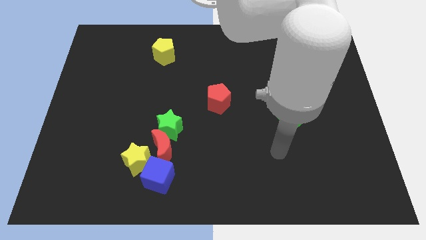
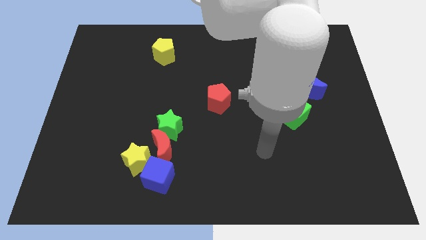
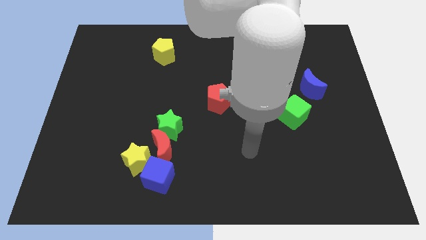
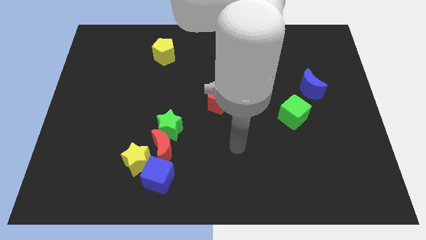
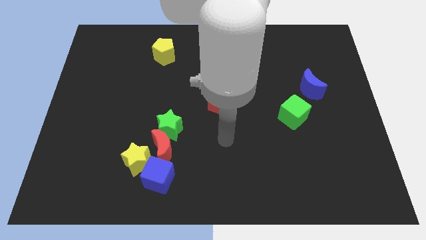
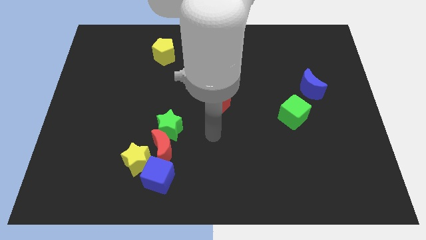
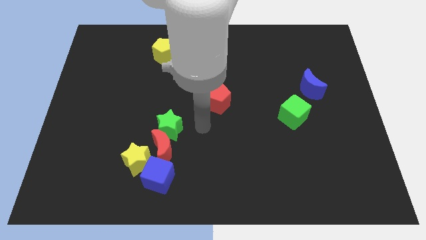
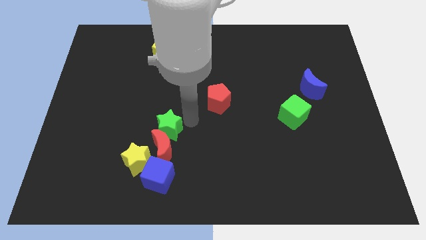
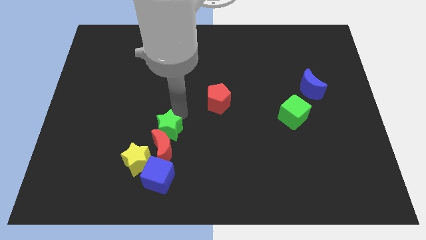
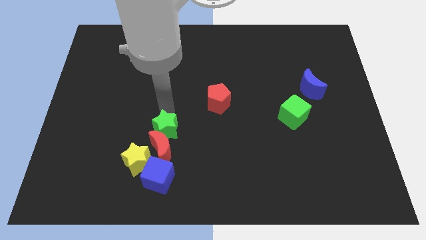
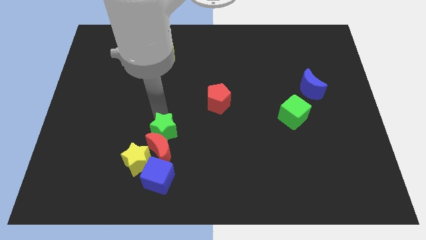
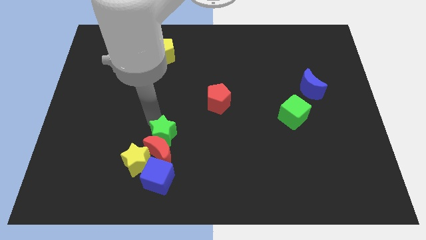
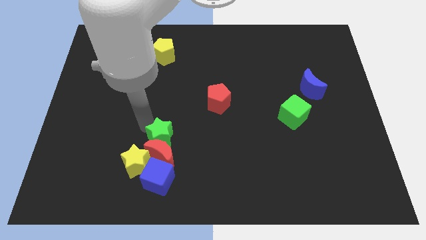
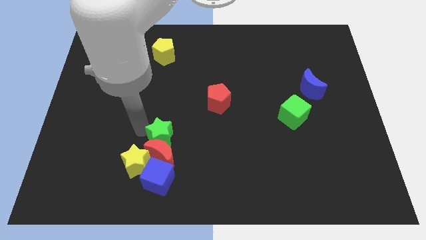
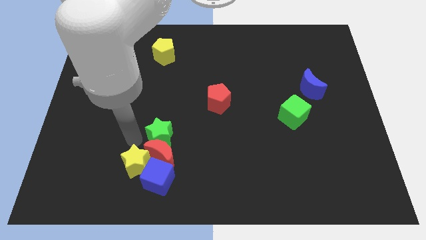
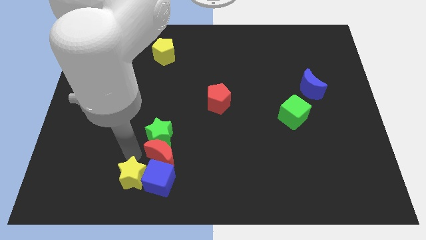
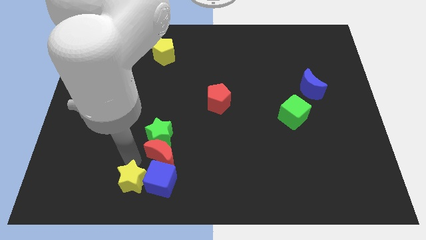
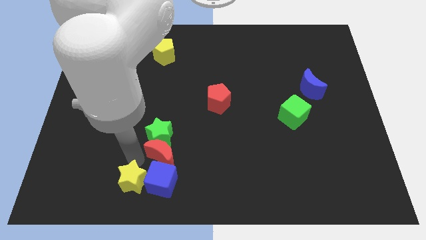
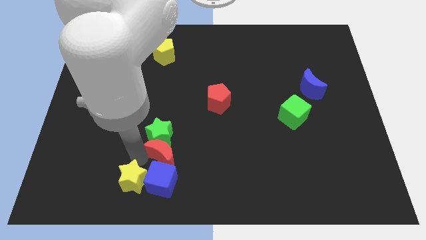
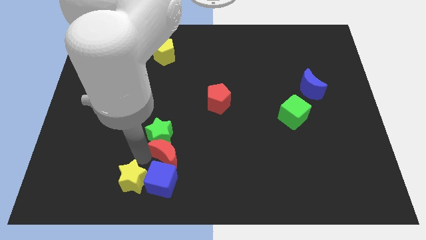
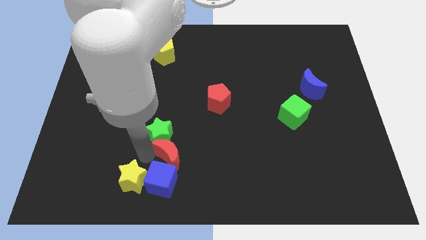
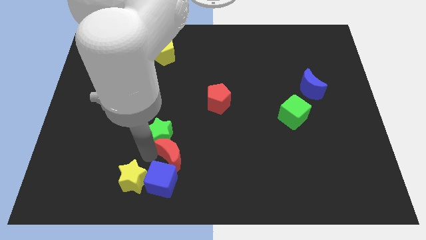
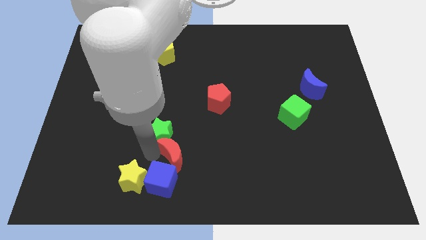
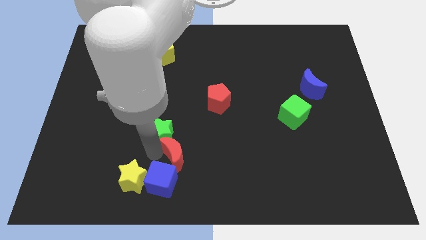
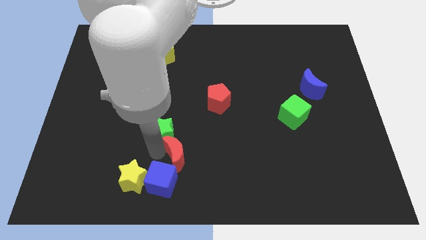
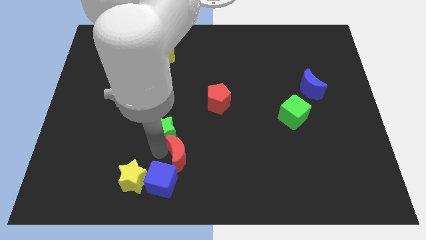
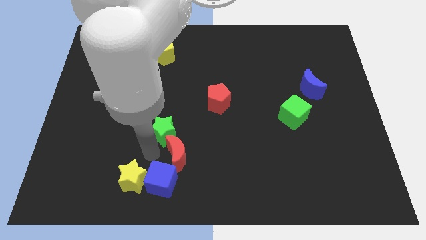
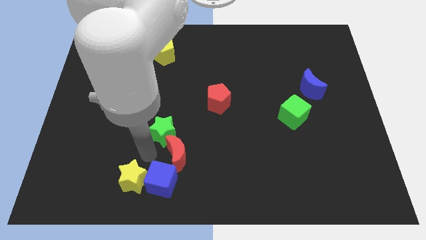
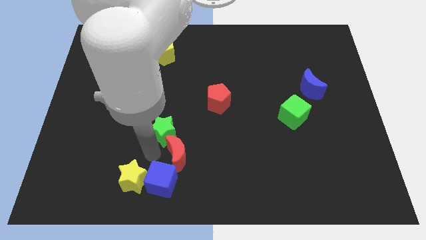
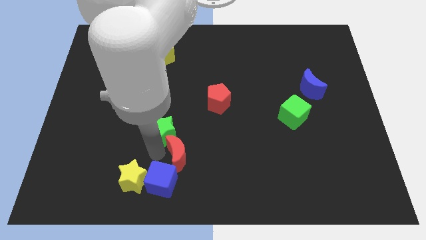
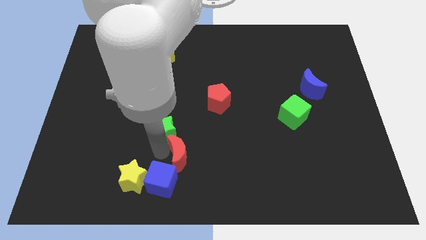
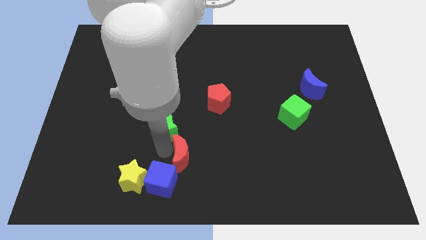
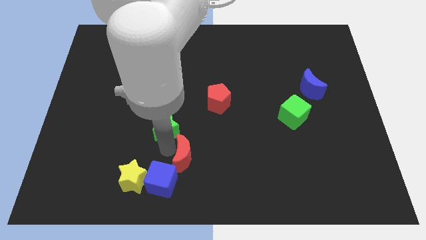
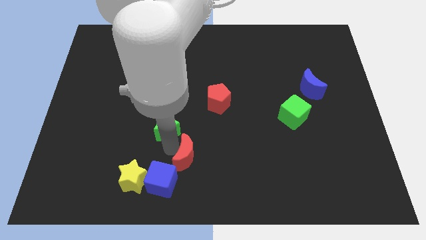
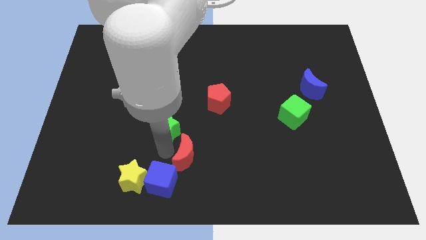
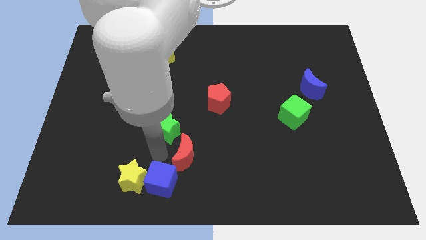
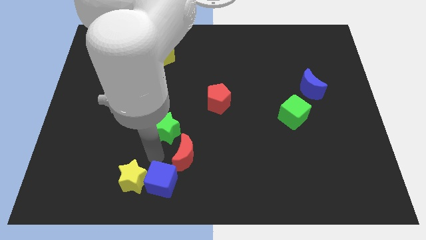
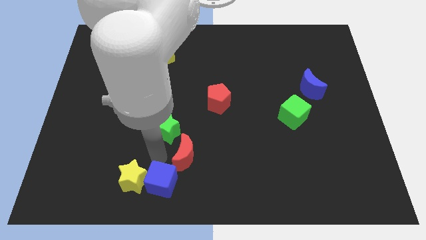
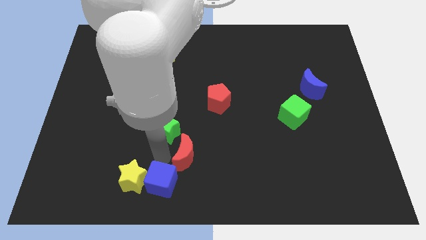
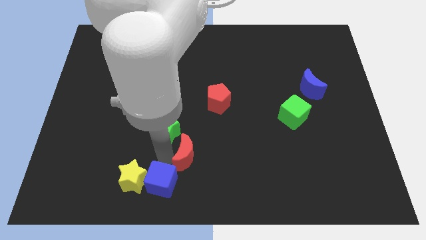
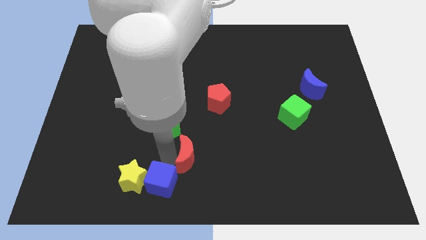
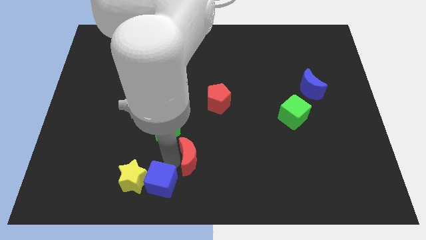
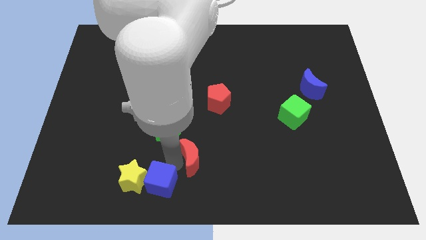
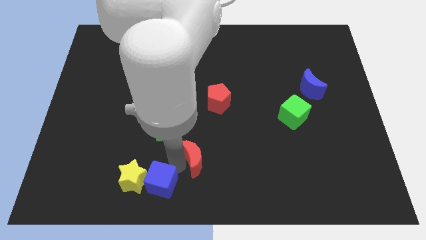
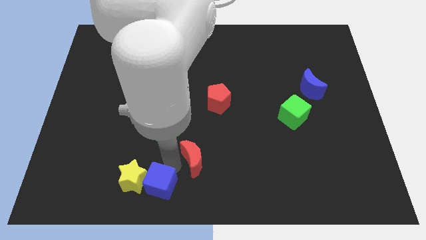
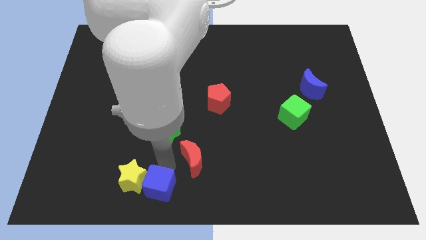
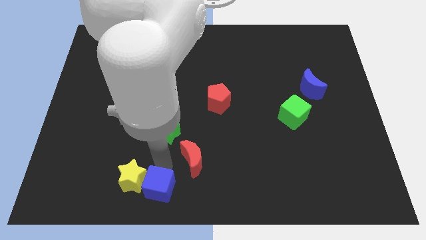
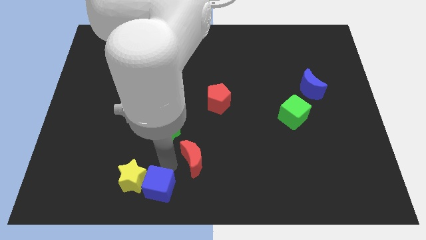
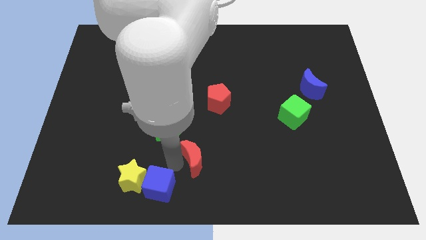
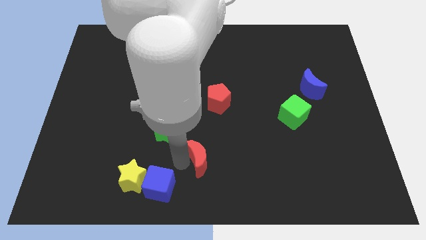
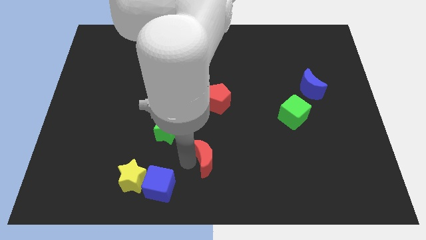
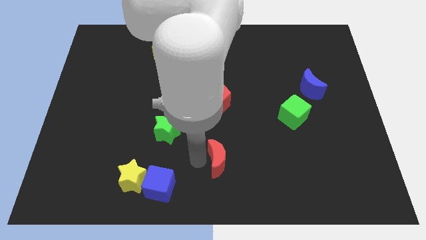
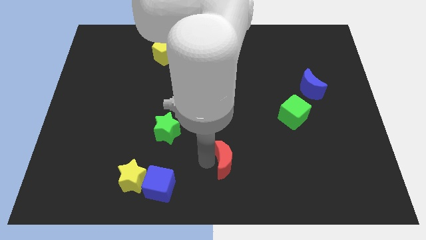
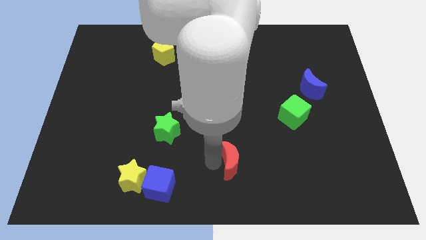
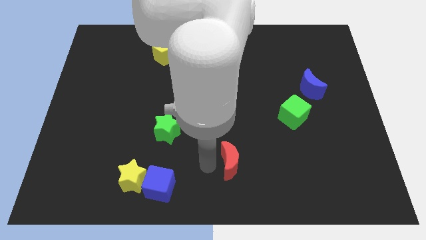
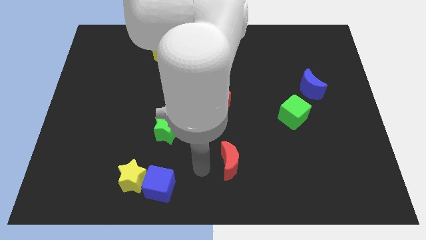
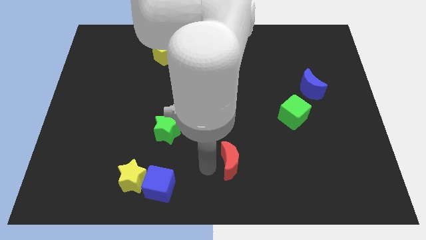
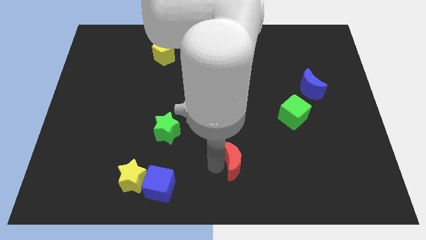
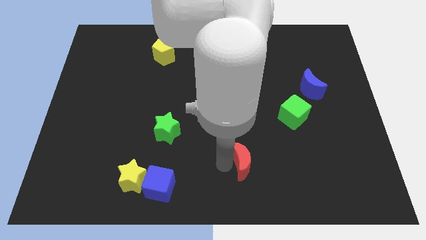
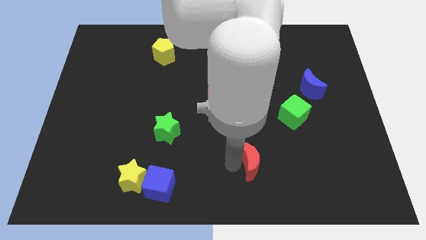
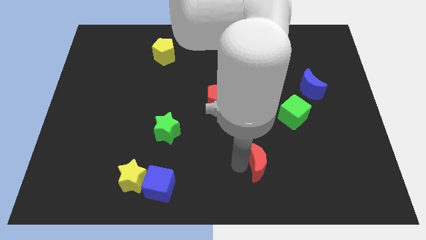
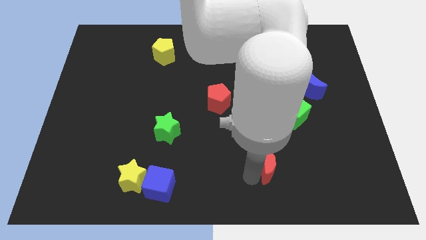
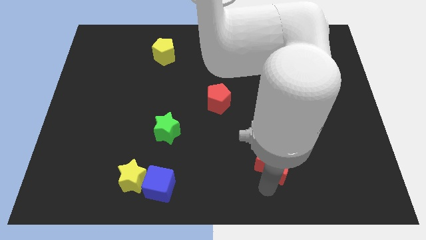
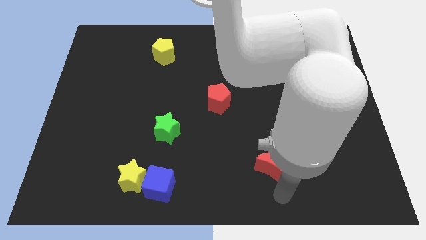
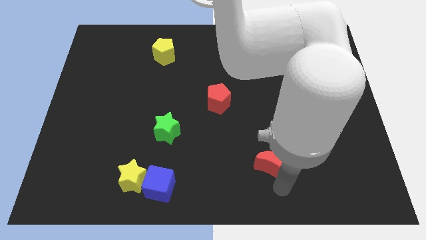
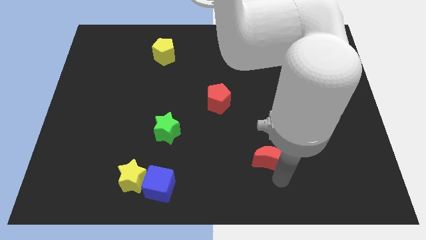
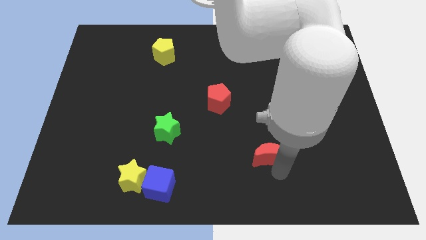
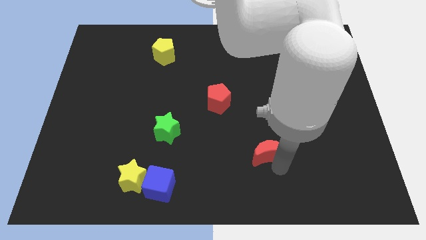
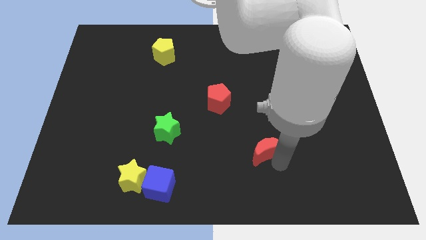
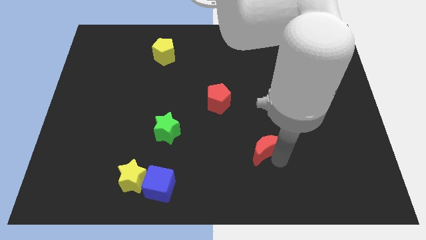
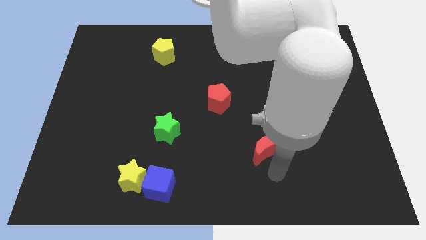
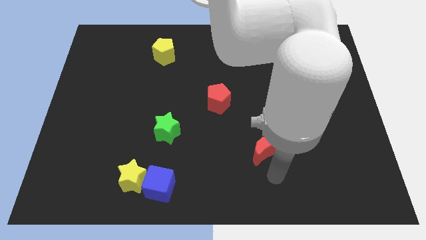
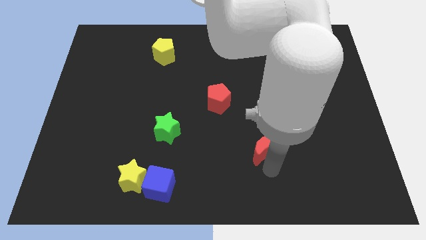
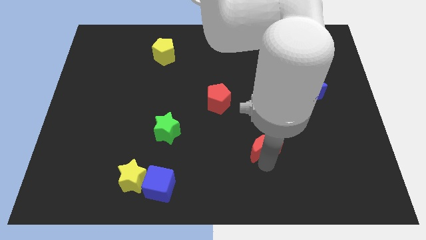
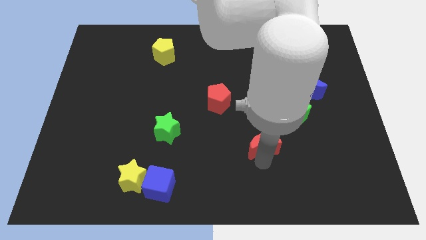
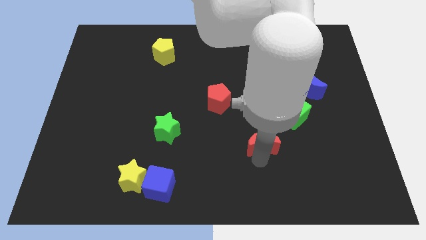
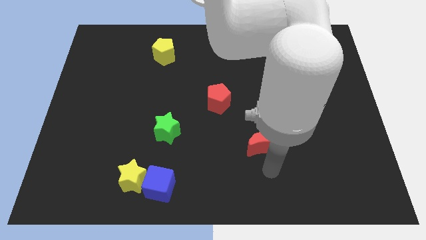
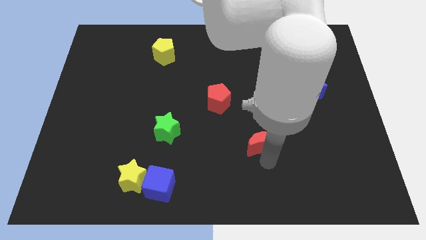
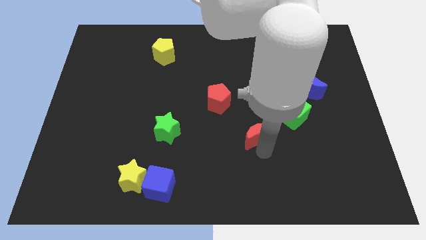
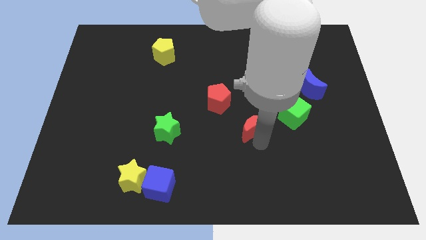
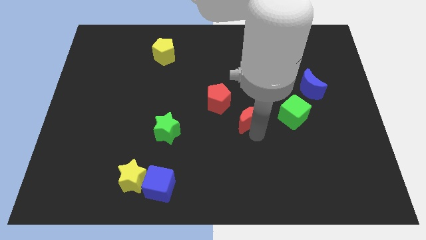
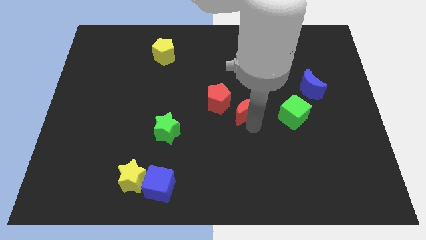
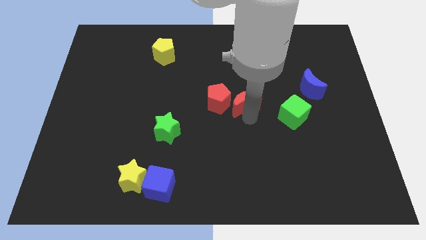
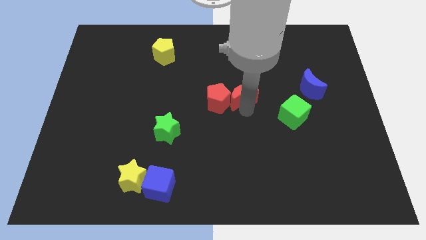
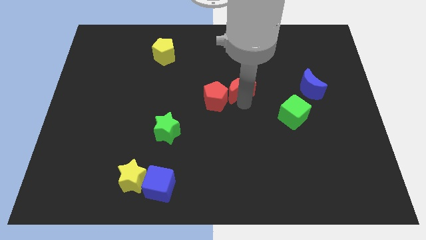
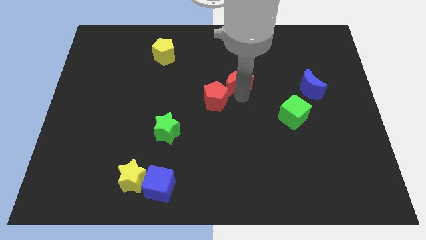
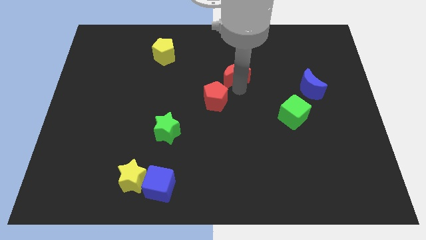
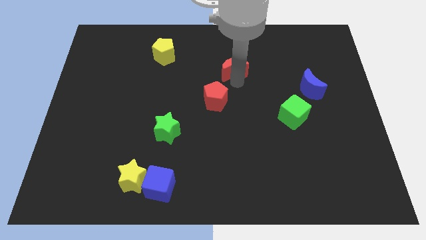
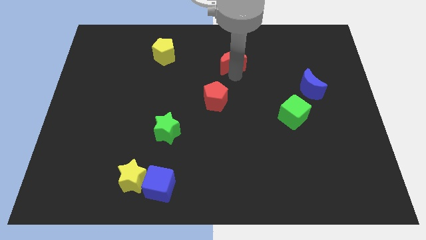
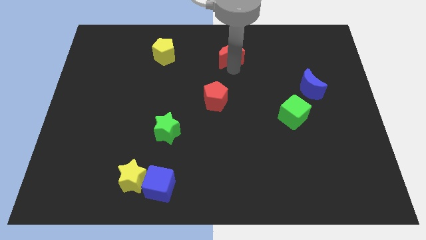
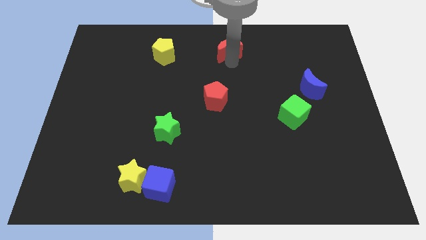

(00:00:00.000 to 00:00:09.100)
slide the red moon to the top
